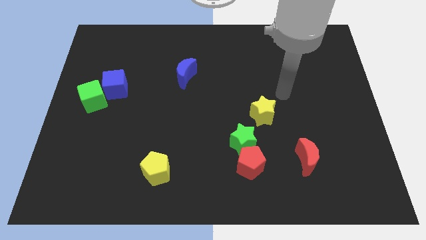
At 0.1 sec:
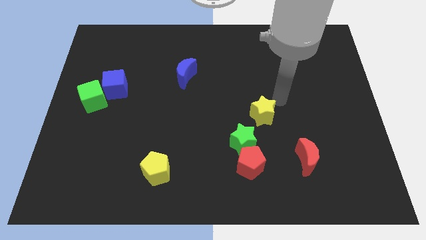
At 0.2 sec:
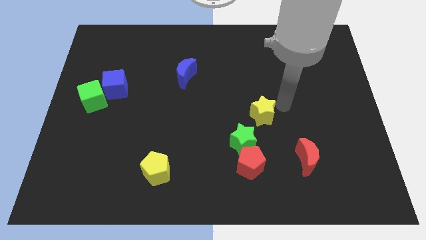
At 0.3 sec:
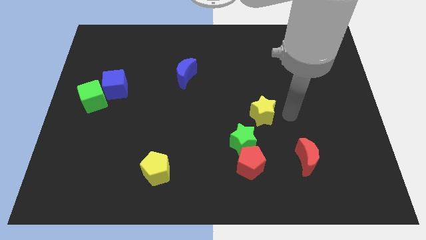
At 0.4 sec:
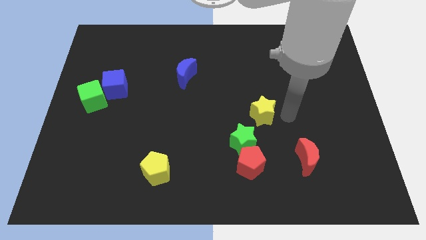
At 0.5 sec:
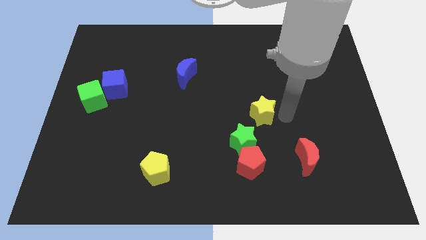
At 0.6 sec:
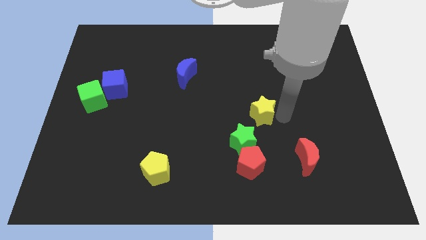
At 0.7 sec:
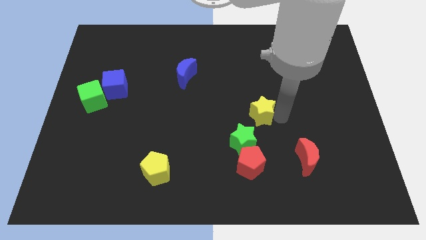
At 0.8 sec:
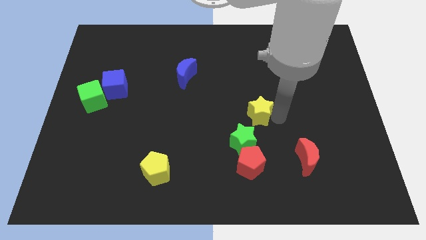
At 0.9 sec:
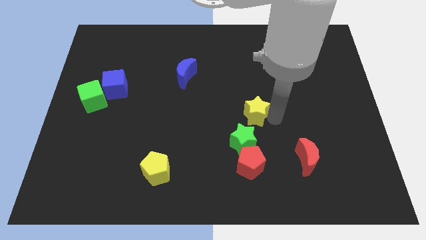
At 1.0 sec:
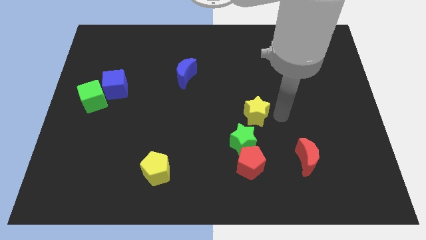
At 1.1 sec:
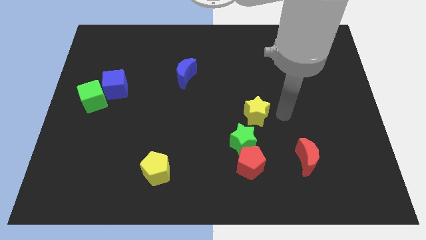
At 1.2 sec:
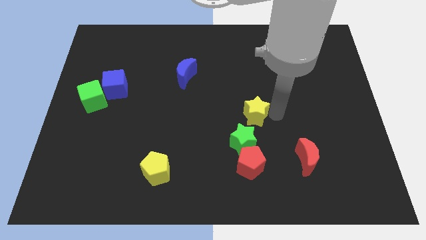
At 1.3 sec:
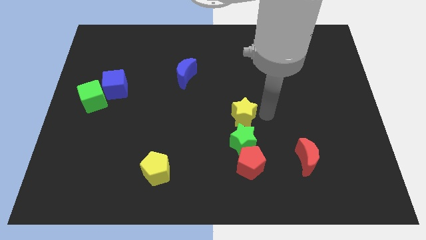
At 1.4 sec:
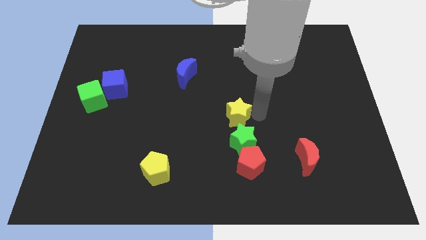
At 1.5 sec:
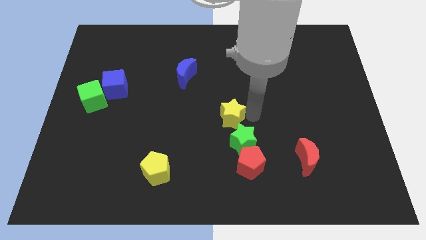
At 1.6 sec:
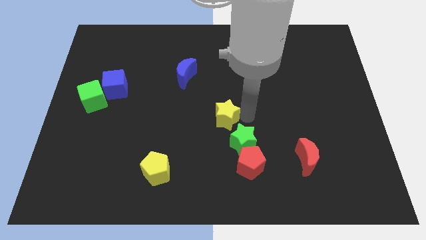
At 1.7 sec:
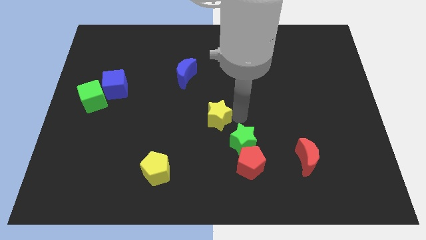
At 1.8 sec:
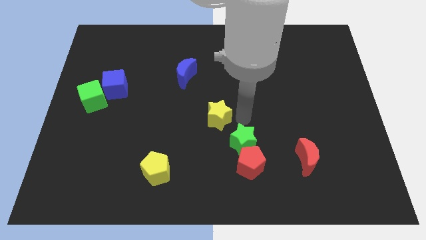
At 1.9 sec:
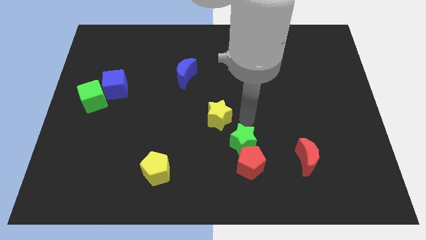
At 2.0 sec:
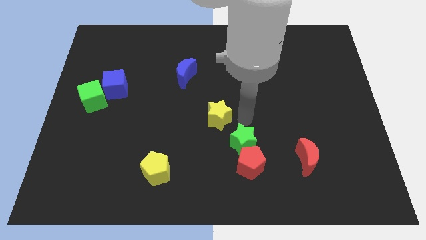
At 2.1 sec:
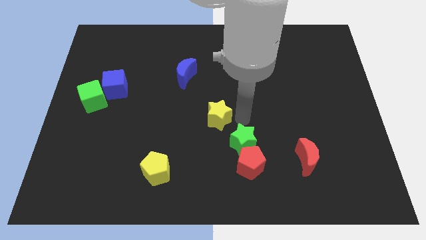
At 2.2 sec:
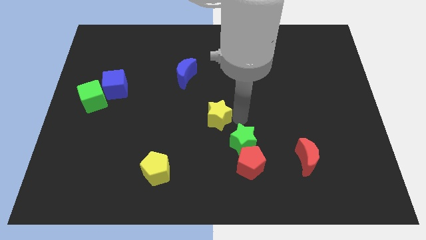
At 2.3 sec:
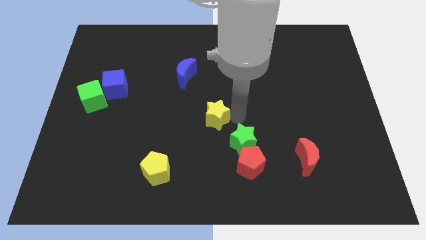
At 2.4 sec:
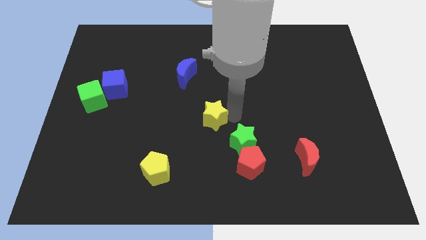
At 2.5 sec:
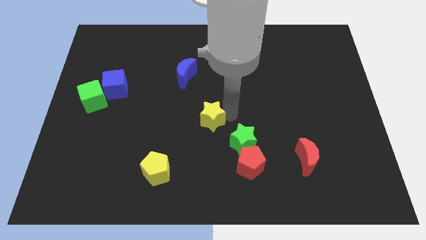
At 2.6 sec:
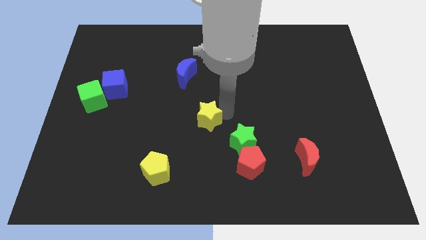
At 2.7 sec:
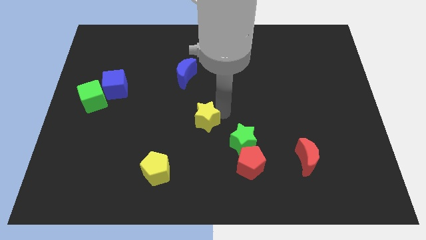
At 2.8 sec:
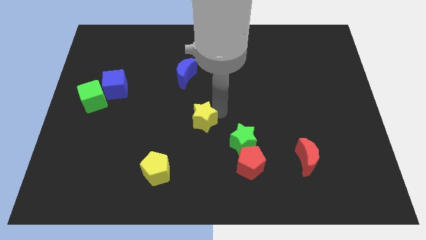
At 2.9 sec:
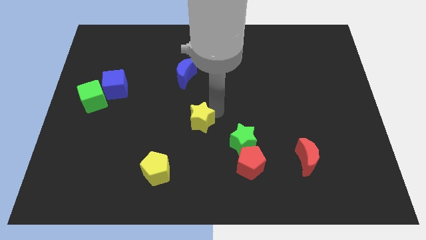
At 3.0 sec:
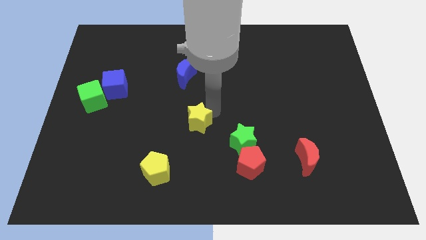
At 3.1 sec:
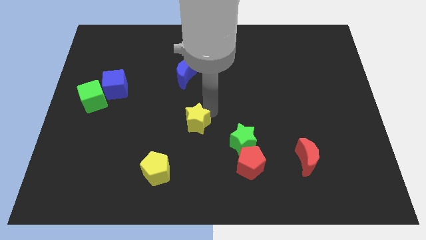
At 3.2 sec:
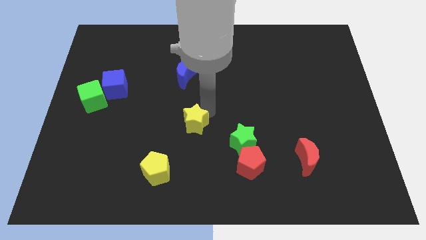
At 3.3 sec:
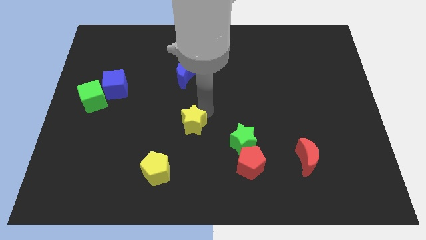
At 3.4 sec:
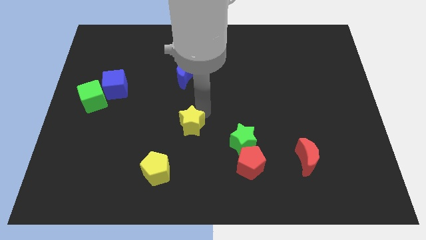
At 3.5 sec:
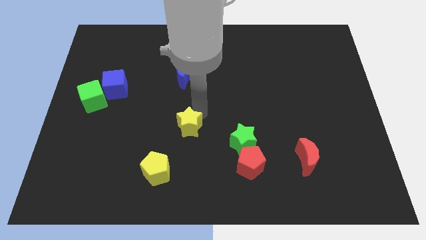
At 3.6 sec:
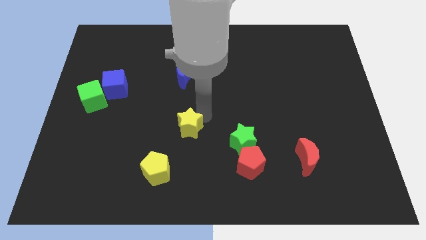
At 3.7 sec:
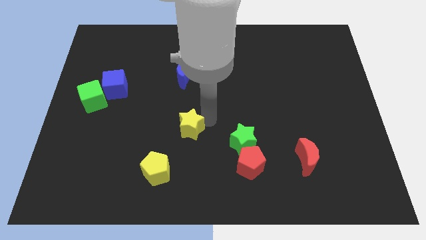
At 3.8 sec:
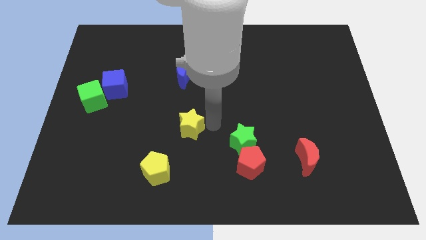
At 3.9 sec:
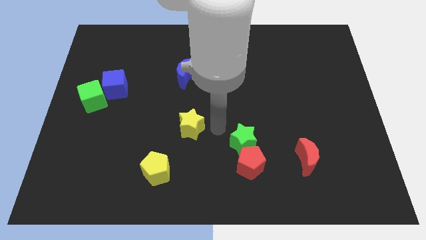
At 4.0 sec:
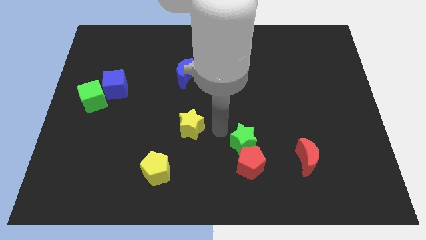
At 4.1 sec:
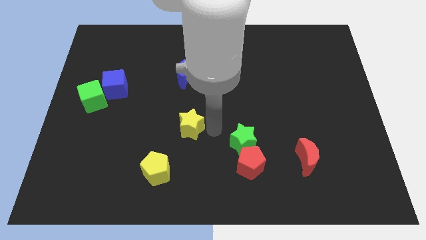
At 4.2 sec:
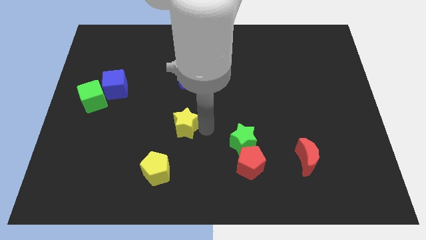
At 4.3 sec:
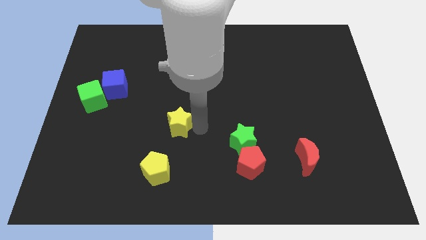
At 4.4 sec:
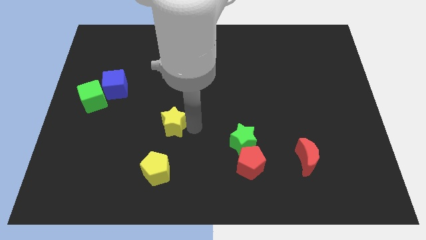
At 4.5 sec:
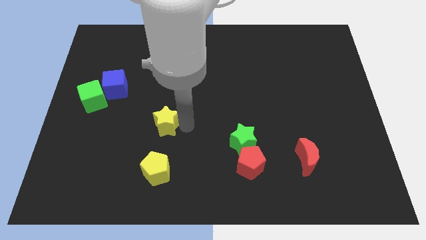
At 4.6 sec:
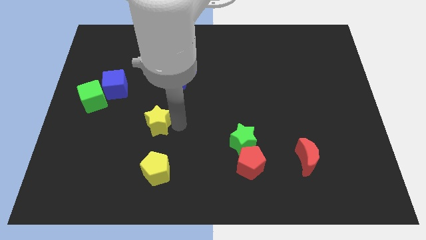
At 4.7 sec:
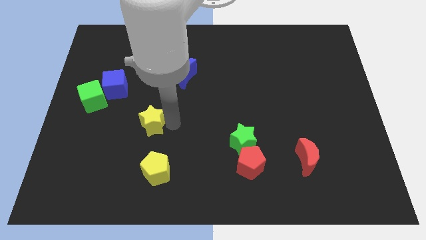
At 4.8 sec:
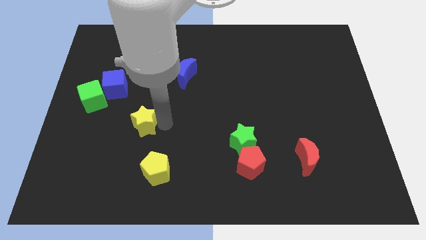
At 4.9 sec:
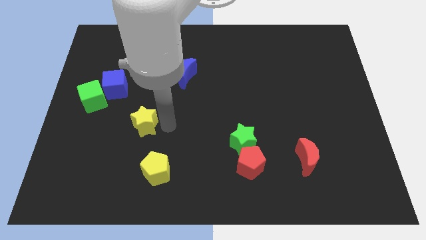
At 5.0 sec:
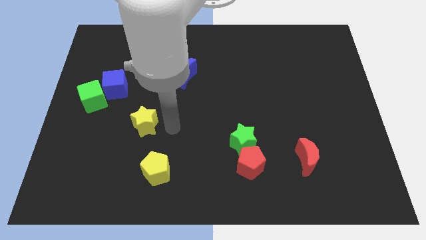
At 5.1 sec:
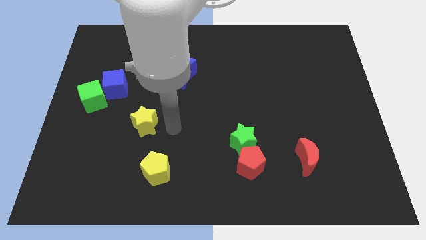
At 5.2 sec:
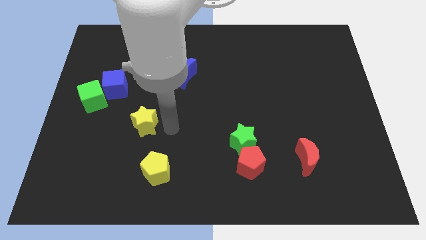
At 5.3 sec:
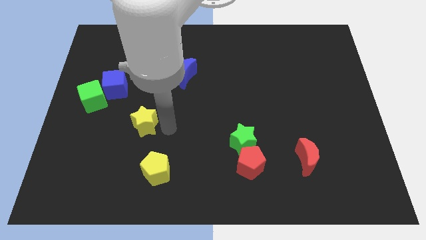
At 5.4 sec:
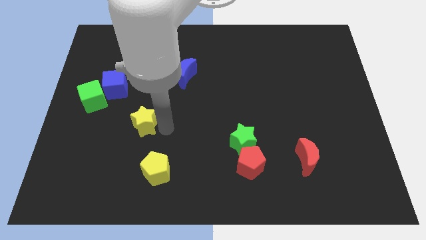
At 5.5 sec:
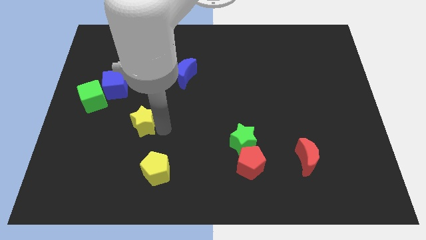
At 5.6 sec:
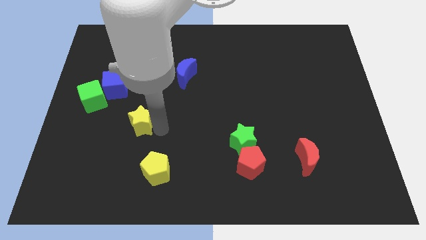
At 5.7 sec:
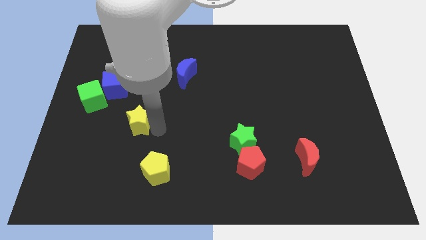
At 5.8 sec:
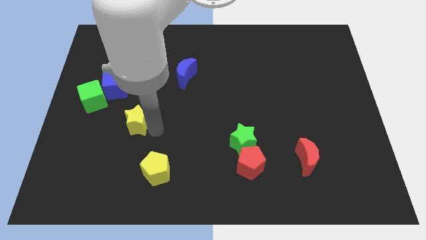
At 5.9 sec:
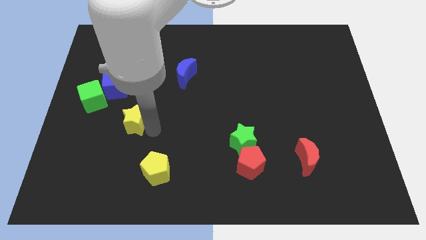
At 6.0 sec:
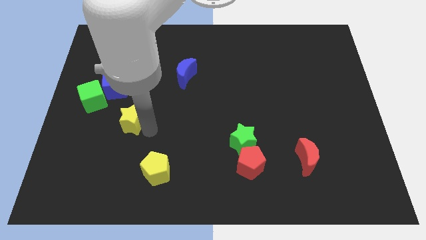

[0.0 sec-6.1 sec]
push the yellow star to the bottom right side of the green cube

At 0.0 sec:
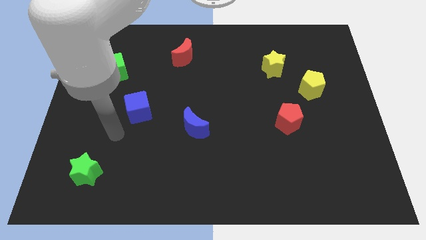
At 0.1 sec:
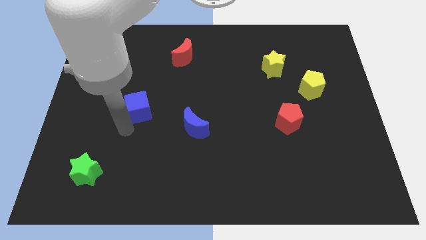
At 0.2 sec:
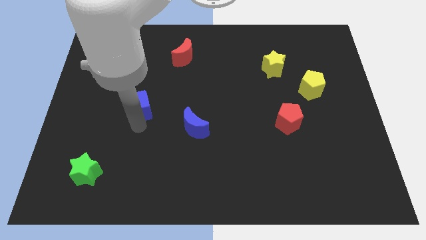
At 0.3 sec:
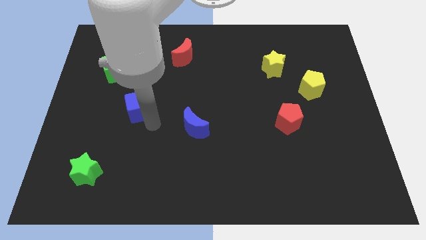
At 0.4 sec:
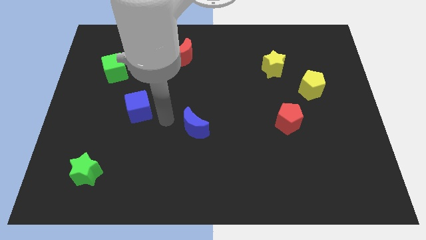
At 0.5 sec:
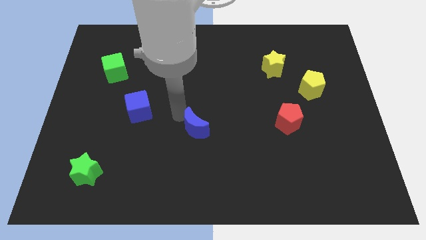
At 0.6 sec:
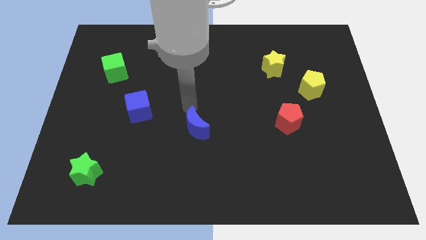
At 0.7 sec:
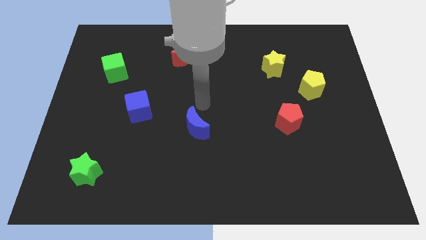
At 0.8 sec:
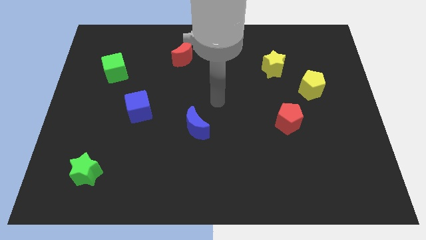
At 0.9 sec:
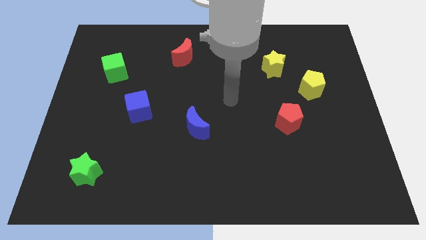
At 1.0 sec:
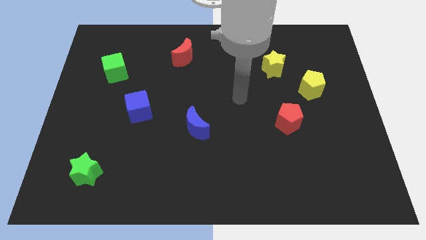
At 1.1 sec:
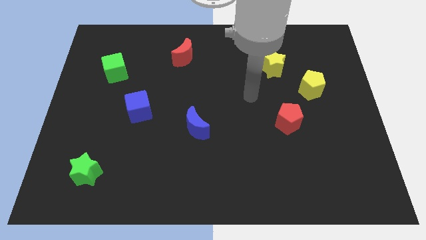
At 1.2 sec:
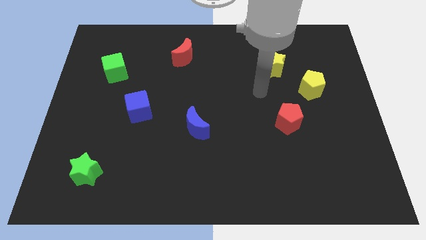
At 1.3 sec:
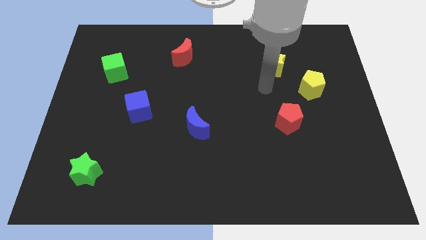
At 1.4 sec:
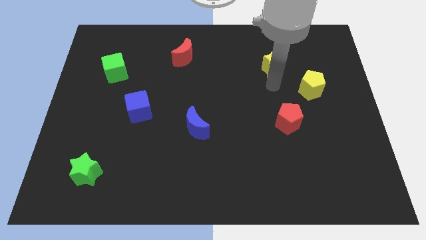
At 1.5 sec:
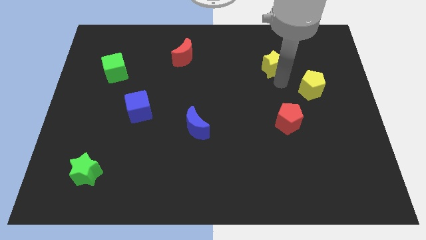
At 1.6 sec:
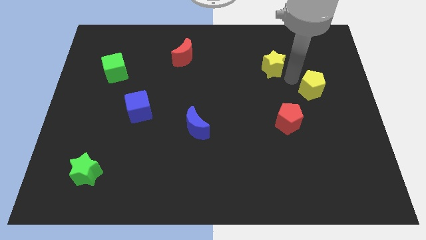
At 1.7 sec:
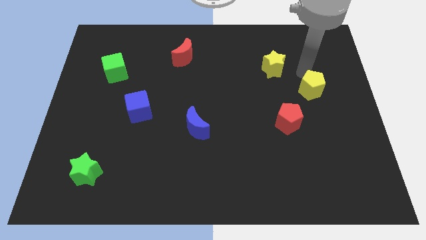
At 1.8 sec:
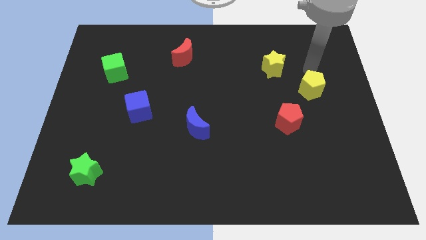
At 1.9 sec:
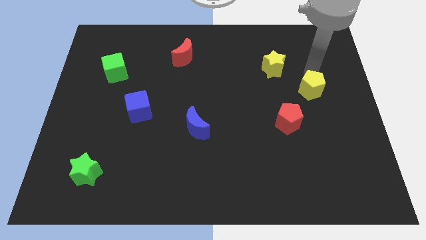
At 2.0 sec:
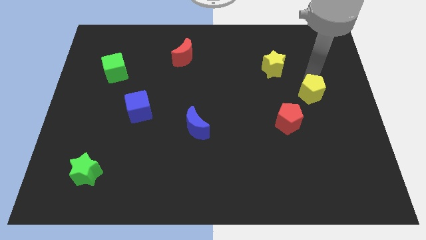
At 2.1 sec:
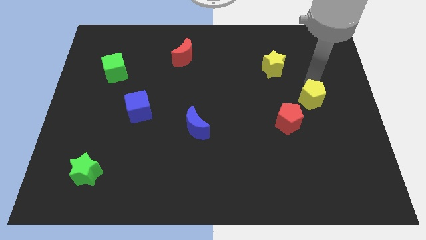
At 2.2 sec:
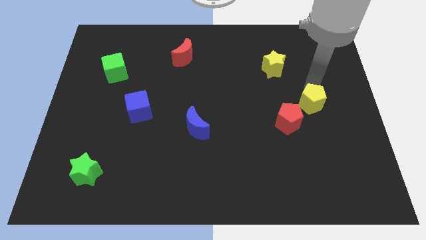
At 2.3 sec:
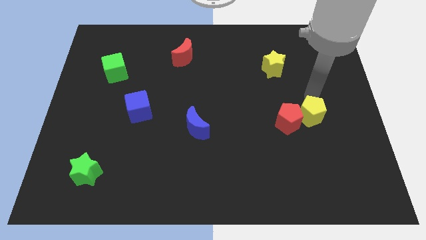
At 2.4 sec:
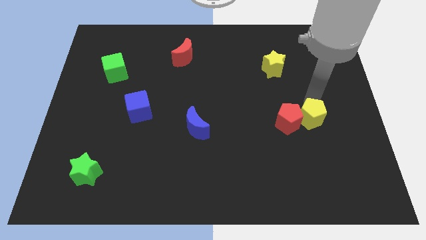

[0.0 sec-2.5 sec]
slide the yellow pentagon to the bottom right side of the red pentagon
